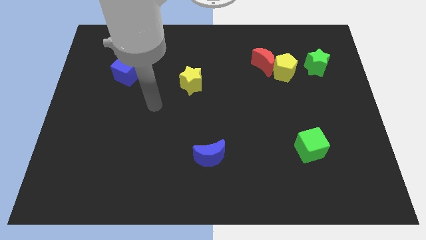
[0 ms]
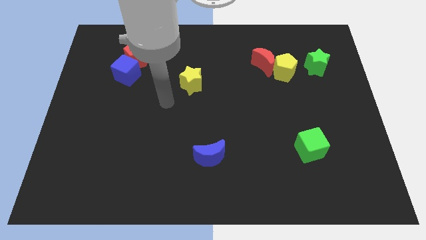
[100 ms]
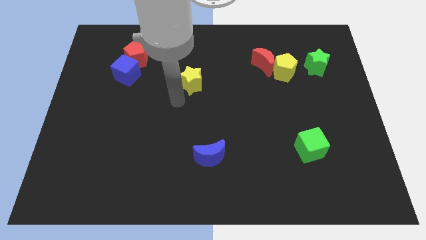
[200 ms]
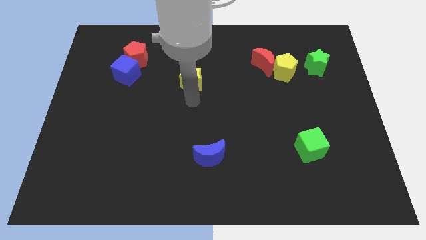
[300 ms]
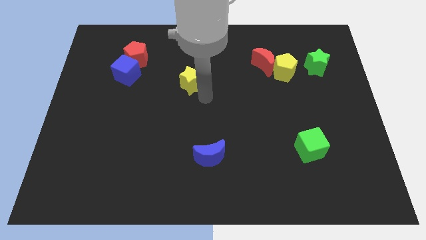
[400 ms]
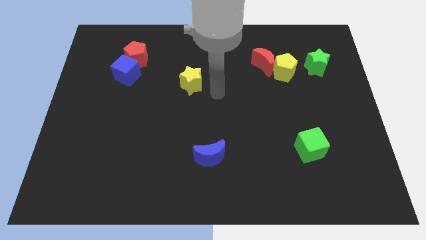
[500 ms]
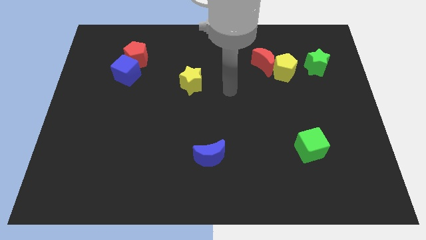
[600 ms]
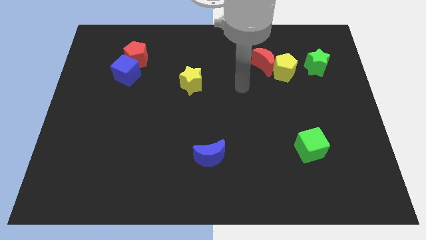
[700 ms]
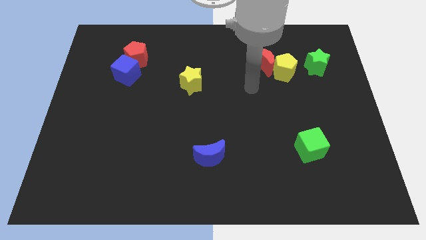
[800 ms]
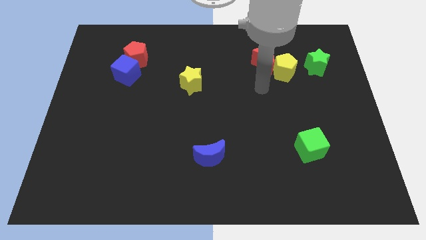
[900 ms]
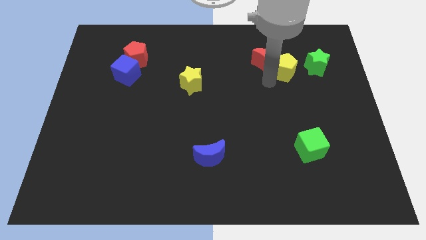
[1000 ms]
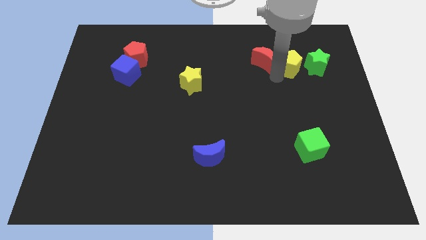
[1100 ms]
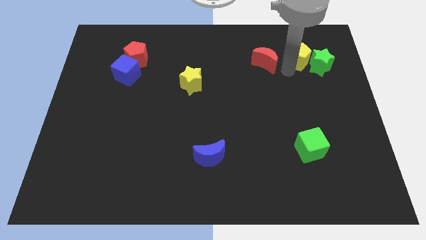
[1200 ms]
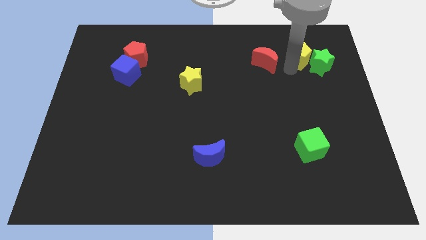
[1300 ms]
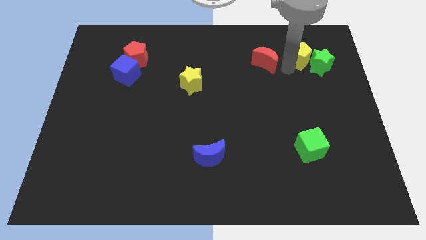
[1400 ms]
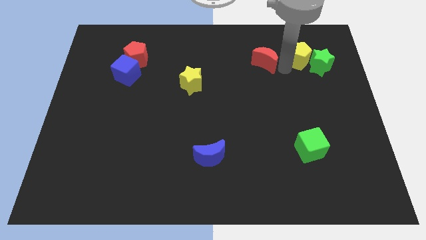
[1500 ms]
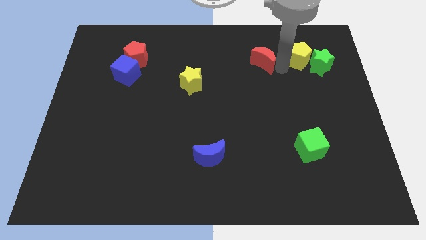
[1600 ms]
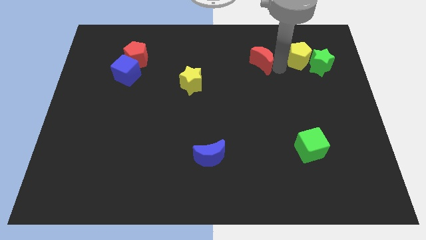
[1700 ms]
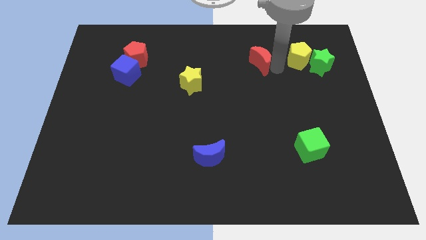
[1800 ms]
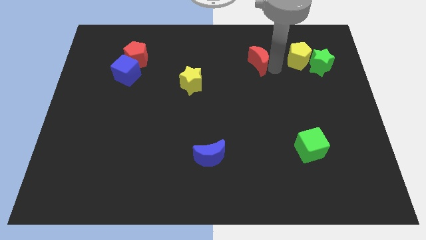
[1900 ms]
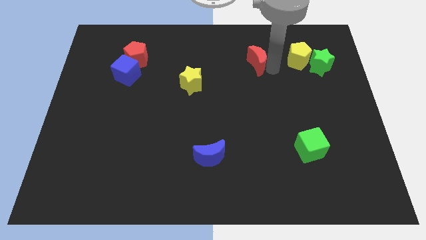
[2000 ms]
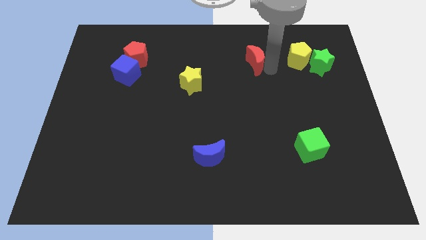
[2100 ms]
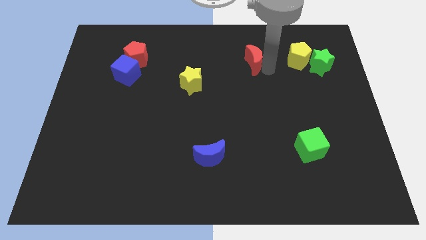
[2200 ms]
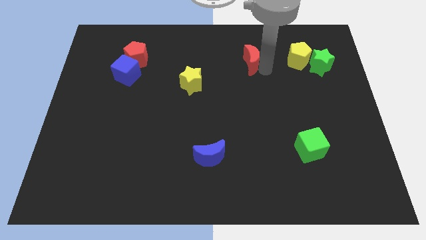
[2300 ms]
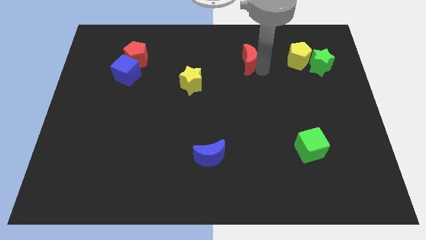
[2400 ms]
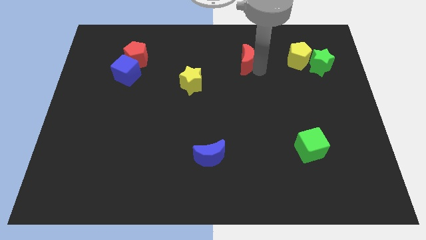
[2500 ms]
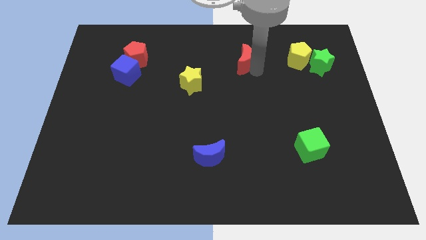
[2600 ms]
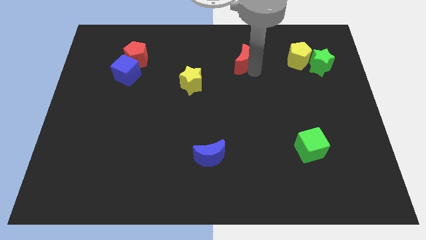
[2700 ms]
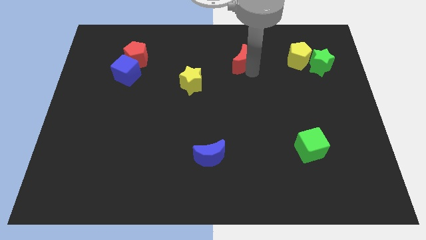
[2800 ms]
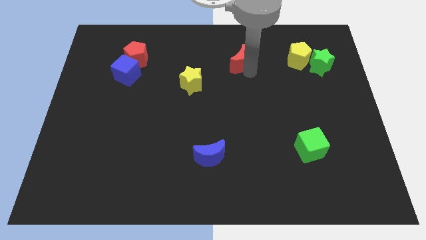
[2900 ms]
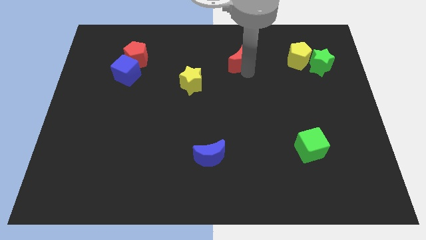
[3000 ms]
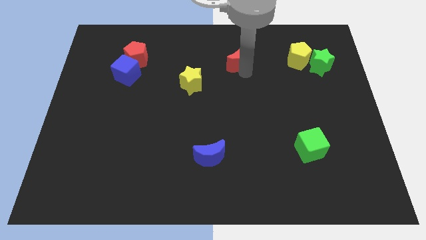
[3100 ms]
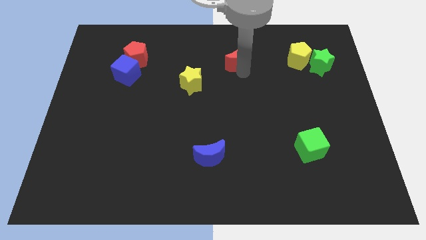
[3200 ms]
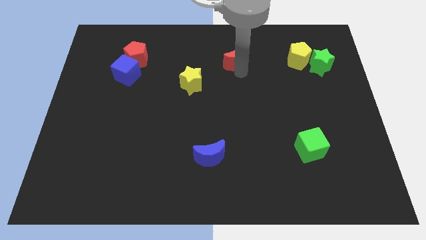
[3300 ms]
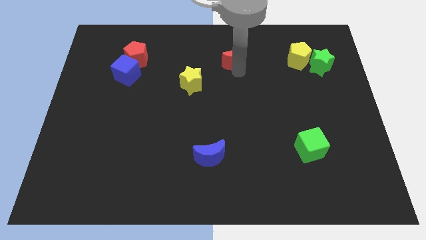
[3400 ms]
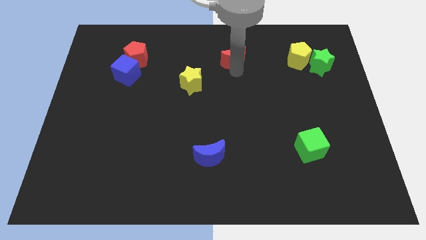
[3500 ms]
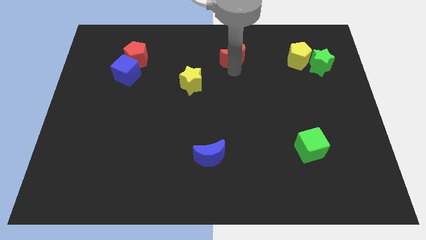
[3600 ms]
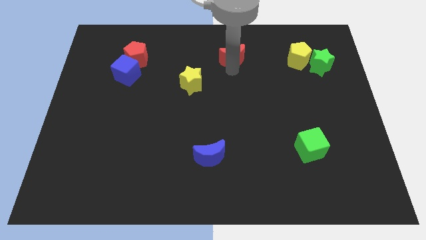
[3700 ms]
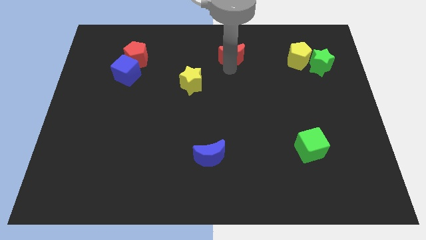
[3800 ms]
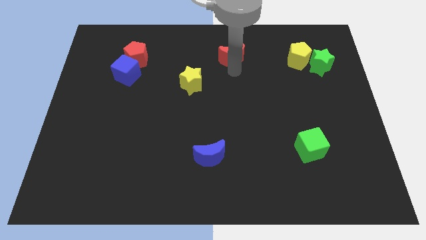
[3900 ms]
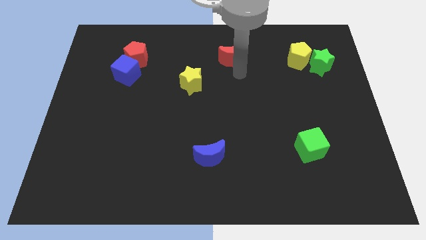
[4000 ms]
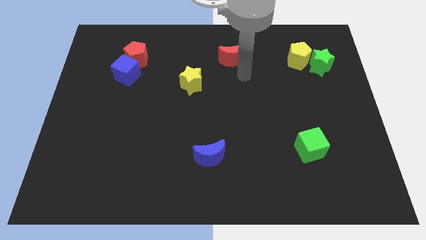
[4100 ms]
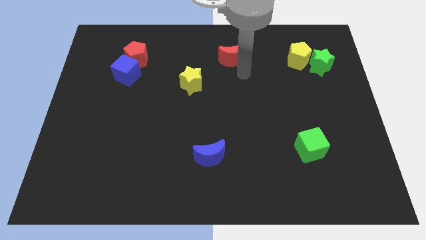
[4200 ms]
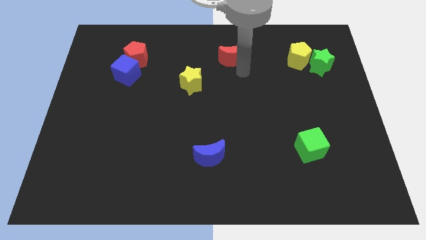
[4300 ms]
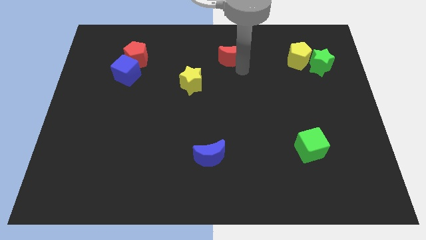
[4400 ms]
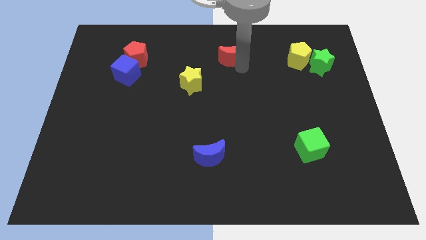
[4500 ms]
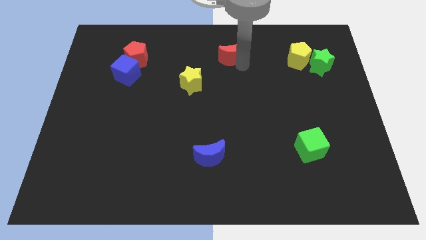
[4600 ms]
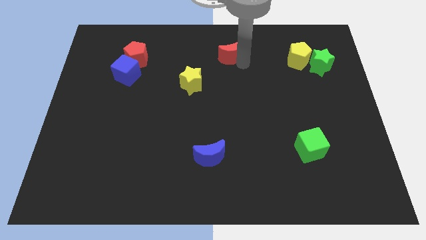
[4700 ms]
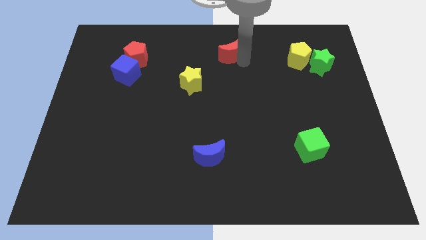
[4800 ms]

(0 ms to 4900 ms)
put the red moon to the top side

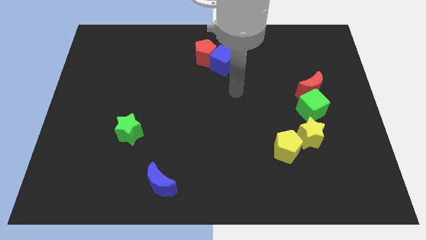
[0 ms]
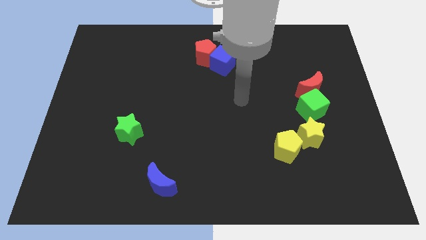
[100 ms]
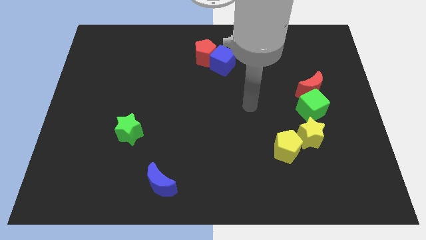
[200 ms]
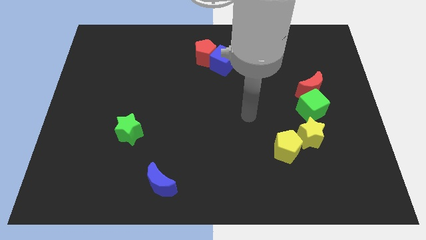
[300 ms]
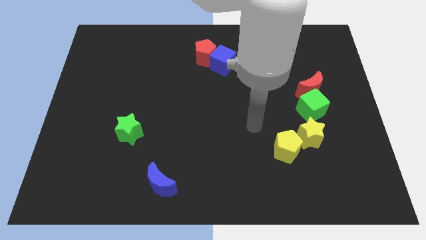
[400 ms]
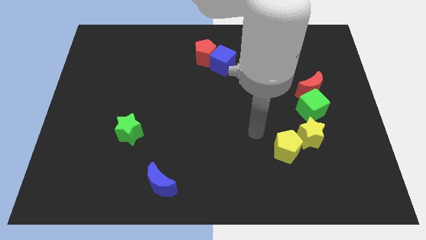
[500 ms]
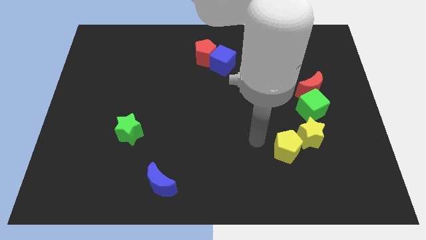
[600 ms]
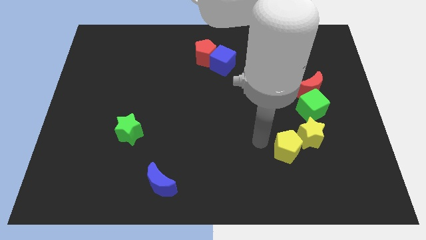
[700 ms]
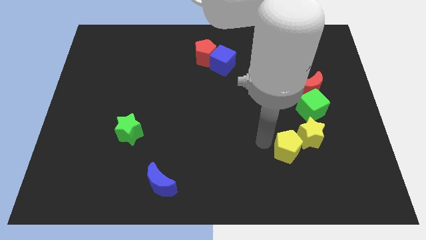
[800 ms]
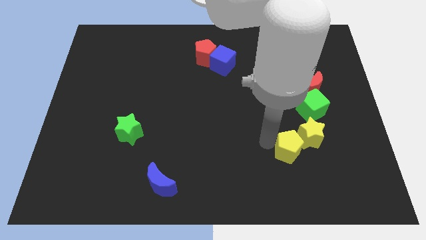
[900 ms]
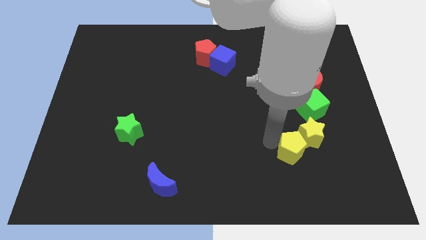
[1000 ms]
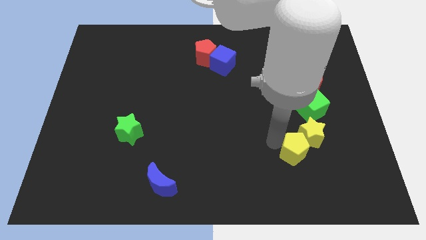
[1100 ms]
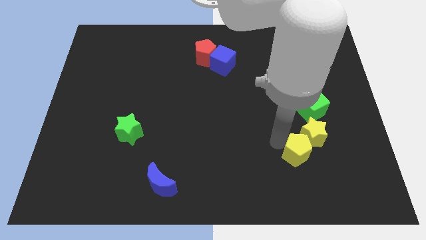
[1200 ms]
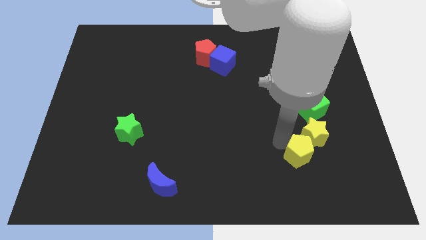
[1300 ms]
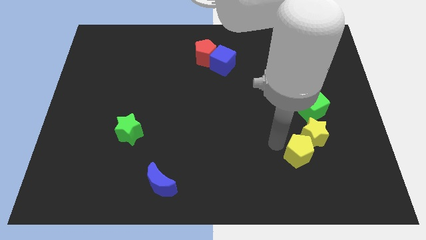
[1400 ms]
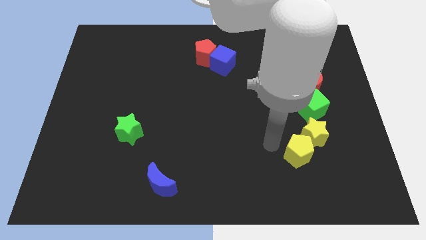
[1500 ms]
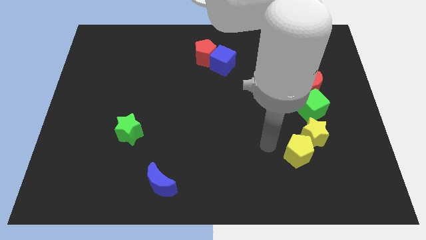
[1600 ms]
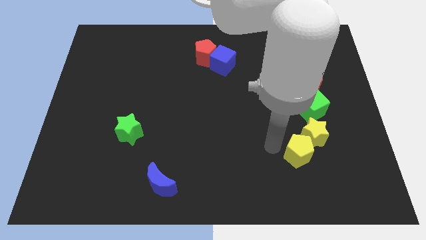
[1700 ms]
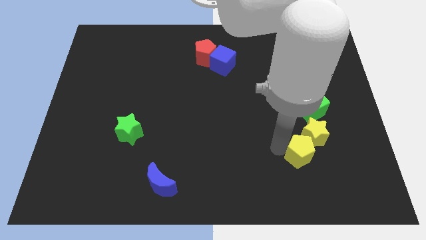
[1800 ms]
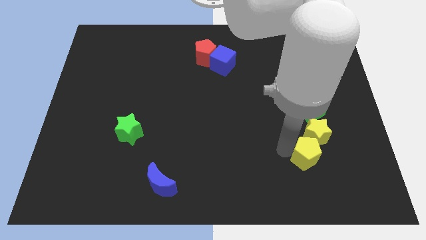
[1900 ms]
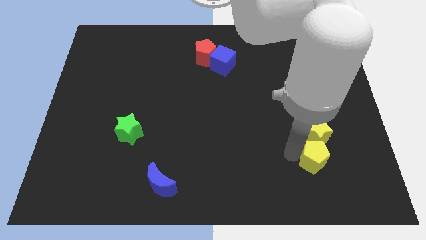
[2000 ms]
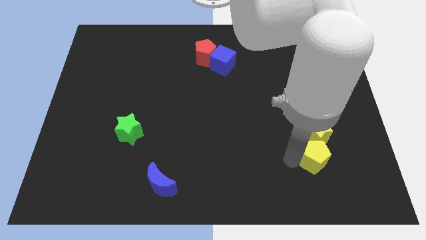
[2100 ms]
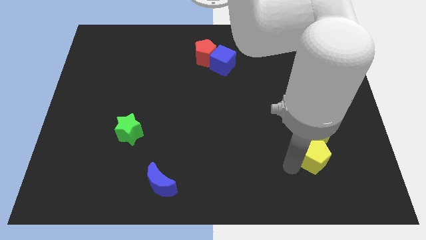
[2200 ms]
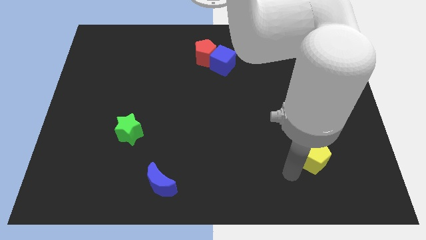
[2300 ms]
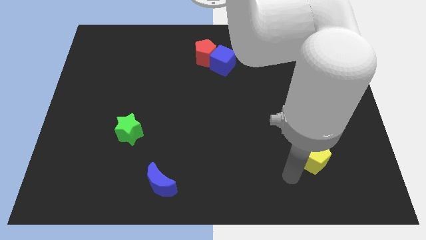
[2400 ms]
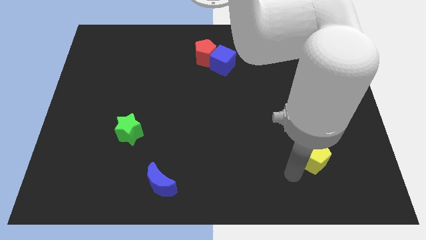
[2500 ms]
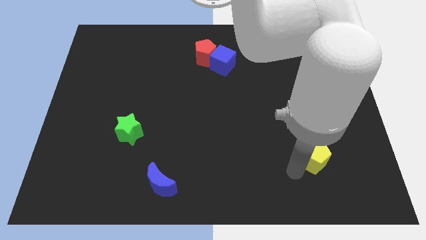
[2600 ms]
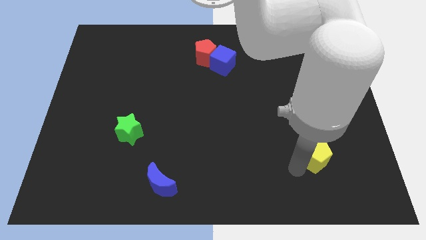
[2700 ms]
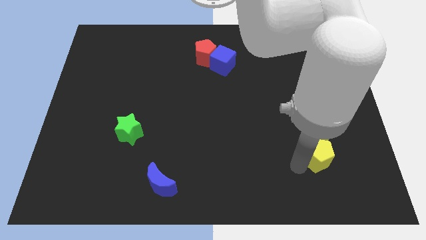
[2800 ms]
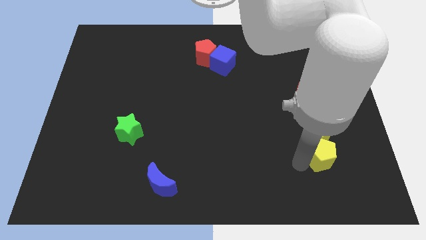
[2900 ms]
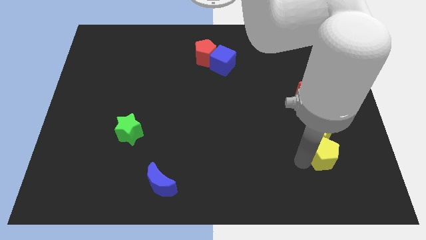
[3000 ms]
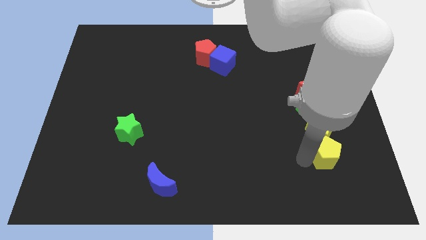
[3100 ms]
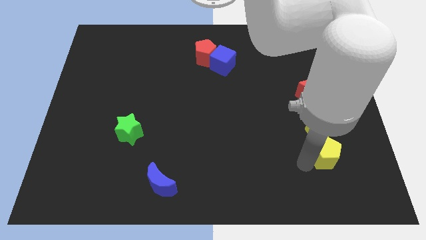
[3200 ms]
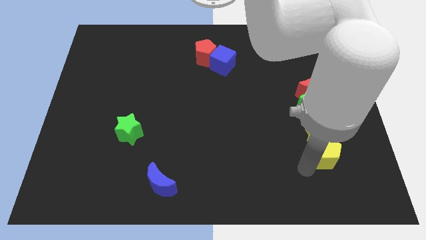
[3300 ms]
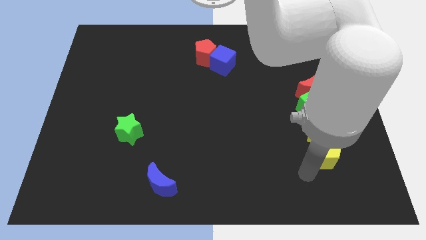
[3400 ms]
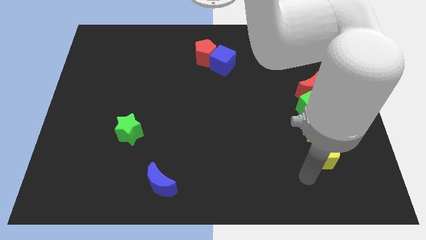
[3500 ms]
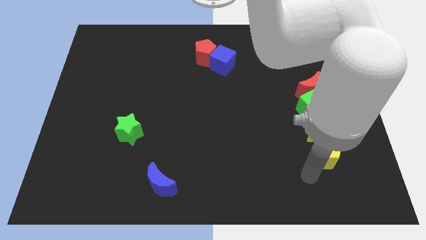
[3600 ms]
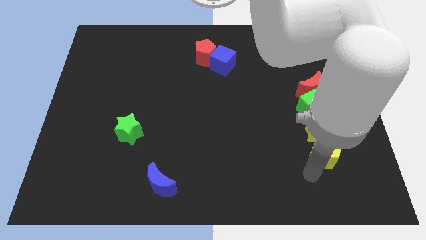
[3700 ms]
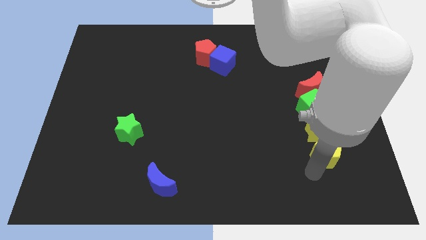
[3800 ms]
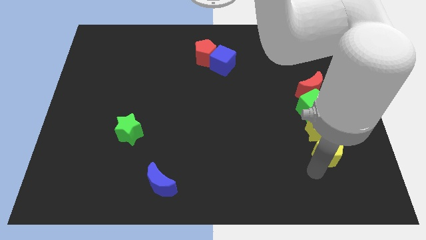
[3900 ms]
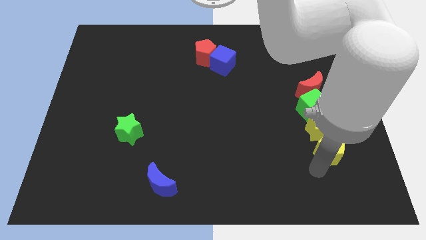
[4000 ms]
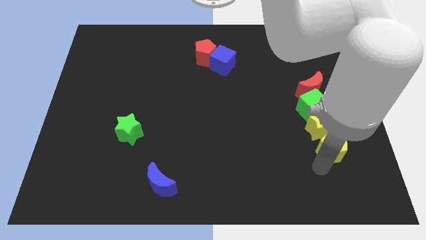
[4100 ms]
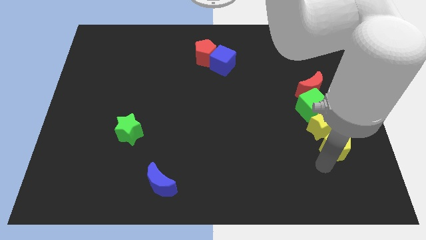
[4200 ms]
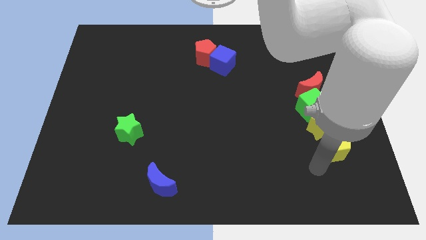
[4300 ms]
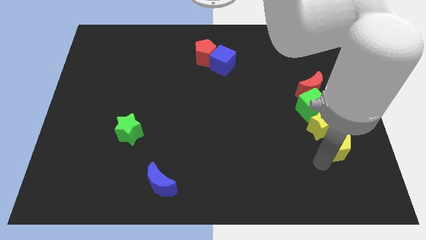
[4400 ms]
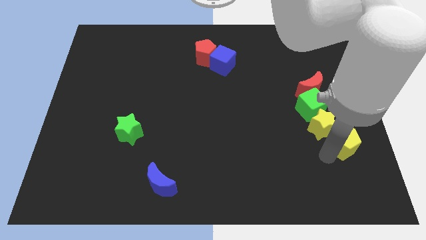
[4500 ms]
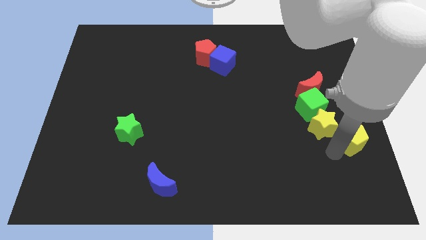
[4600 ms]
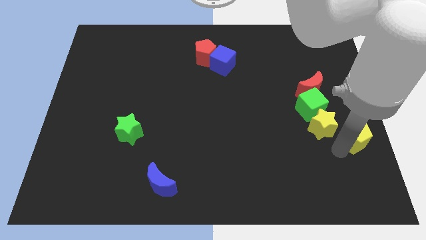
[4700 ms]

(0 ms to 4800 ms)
push the yellow pentagon to the right side of the board
